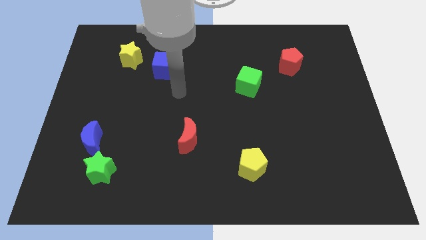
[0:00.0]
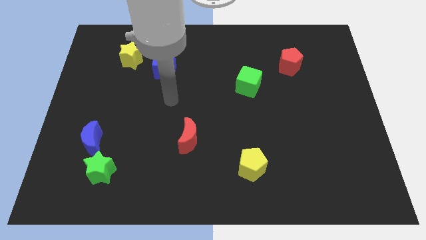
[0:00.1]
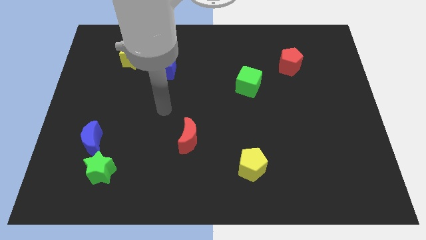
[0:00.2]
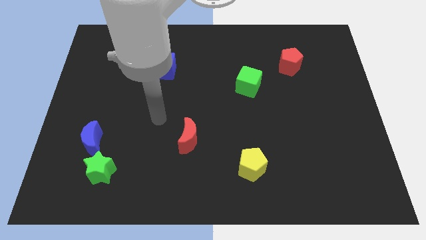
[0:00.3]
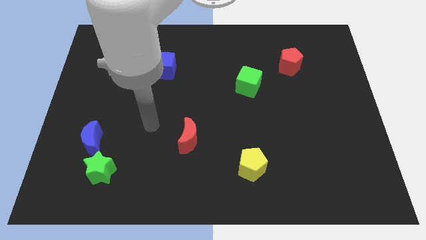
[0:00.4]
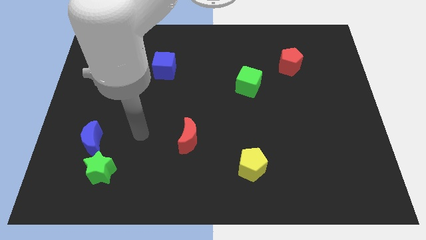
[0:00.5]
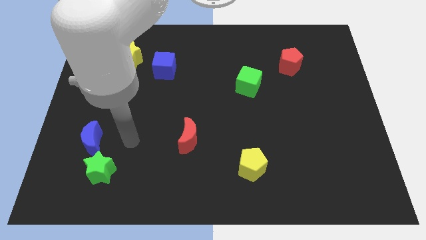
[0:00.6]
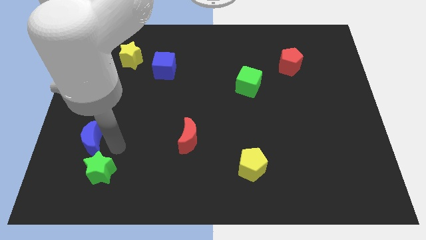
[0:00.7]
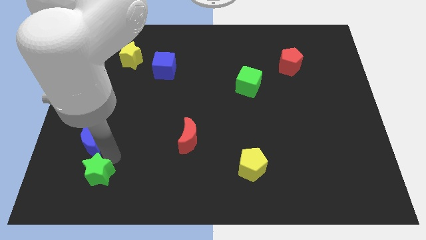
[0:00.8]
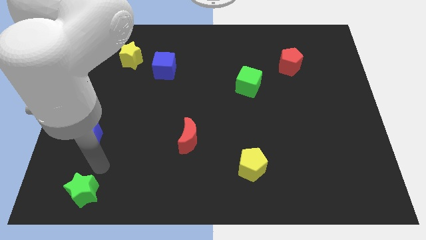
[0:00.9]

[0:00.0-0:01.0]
pull the blue moon apart from the green star

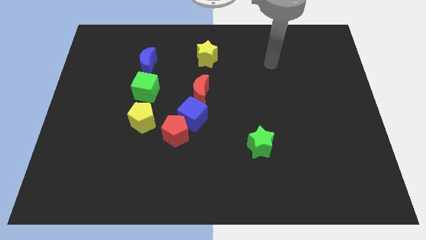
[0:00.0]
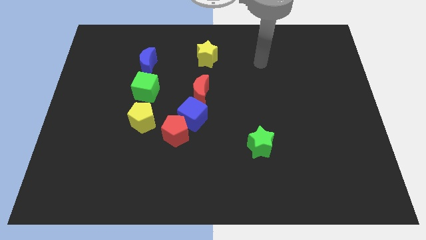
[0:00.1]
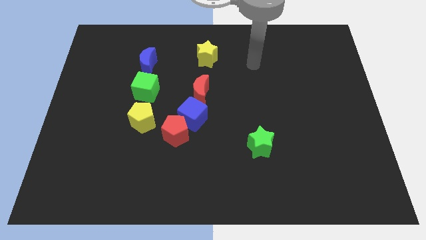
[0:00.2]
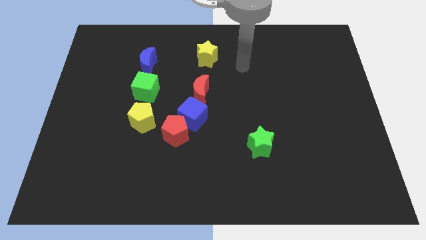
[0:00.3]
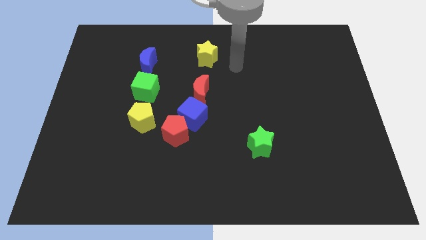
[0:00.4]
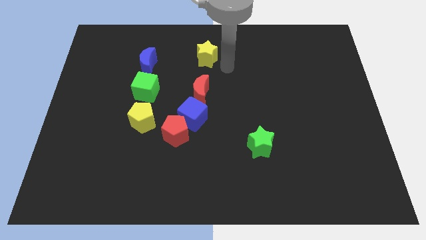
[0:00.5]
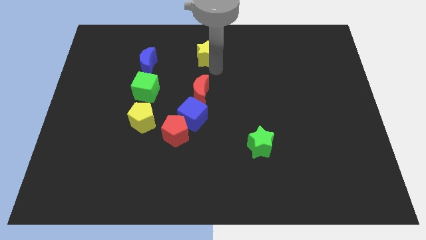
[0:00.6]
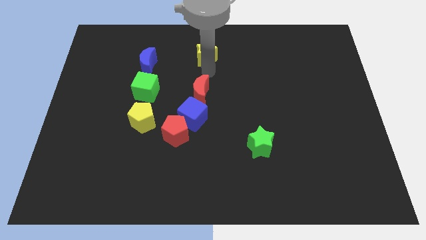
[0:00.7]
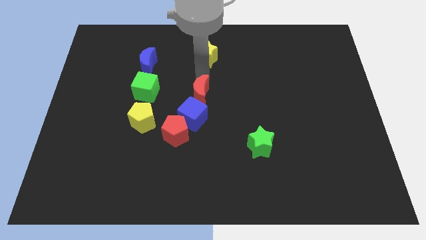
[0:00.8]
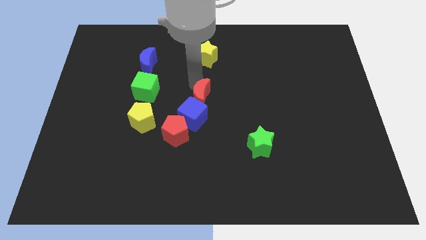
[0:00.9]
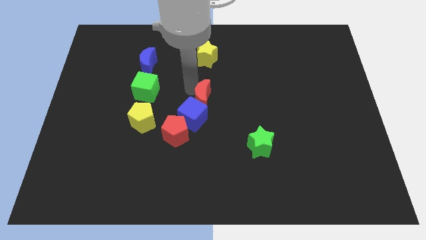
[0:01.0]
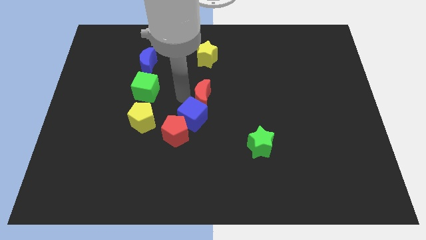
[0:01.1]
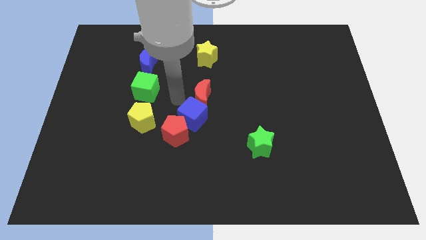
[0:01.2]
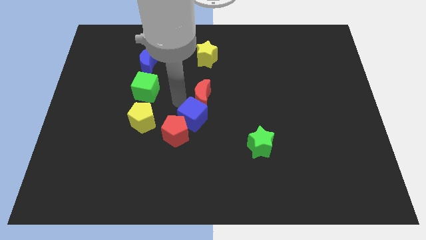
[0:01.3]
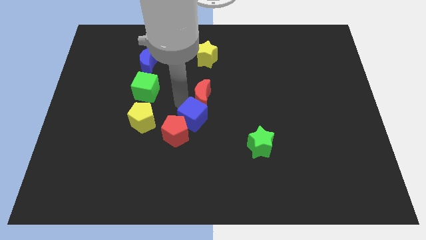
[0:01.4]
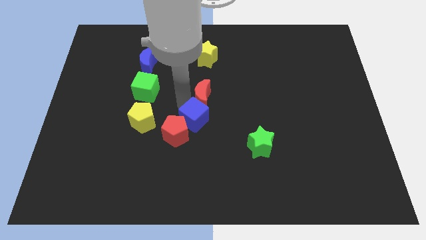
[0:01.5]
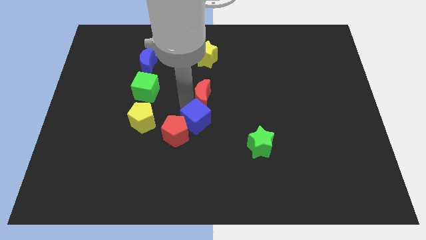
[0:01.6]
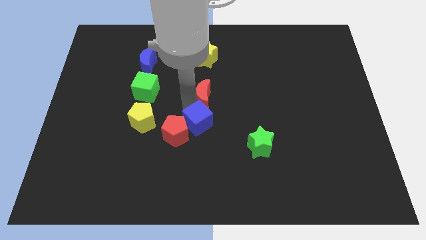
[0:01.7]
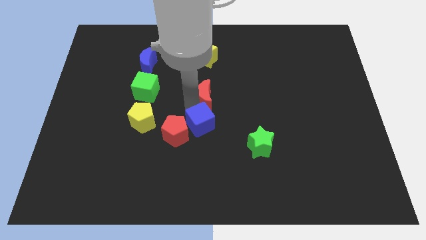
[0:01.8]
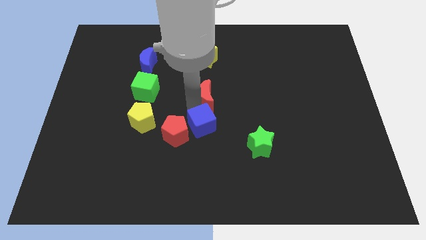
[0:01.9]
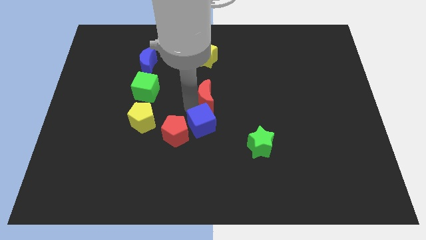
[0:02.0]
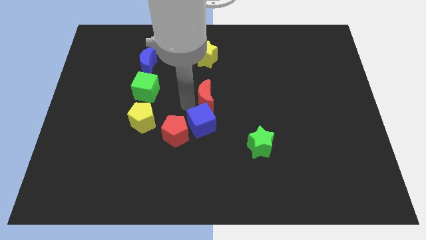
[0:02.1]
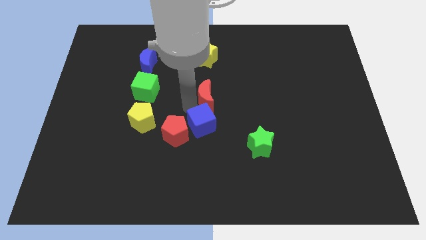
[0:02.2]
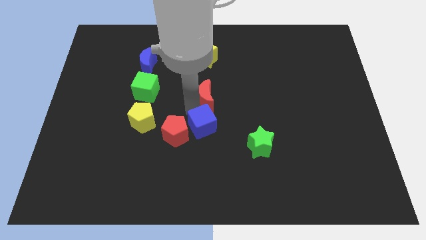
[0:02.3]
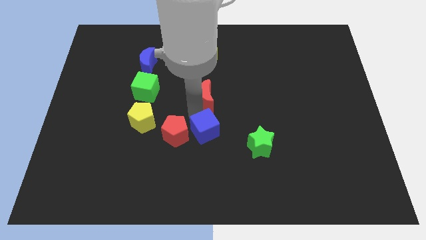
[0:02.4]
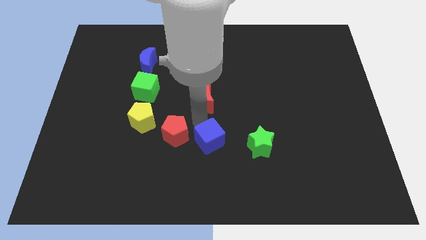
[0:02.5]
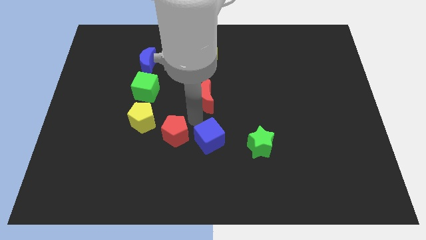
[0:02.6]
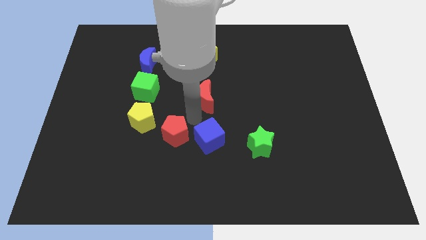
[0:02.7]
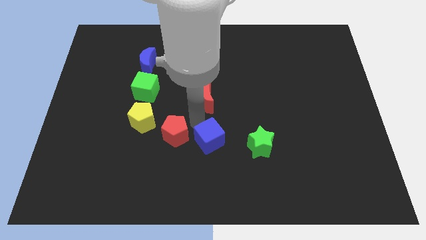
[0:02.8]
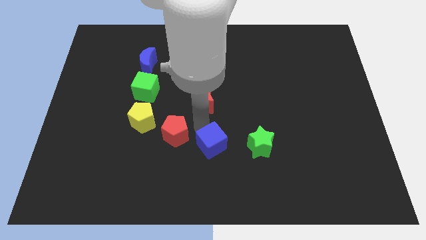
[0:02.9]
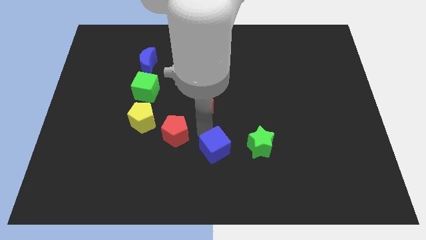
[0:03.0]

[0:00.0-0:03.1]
separate the blue cube from the red pentagon and red moon

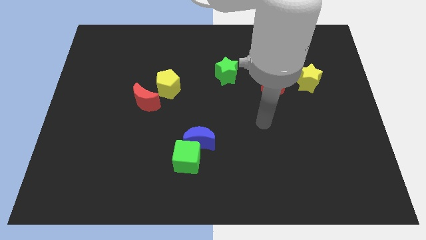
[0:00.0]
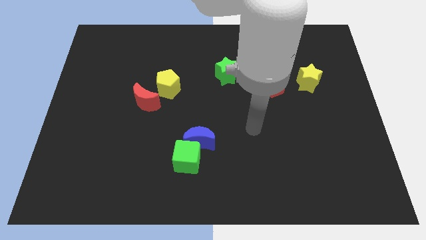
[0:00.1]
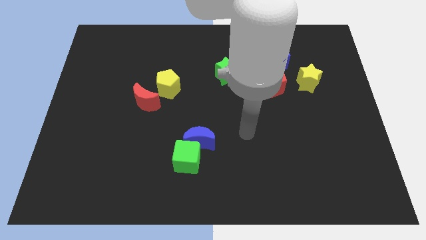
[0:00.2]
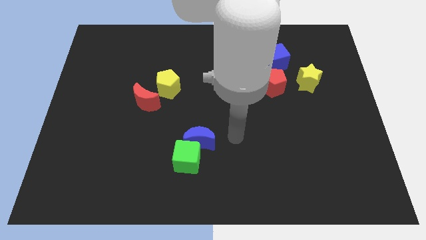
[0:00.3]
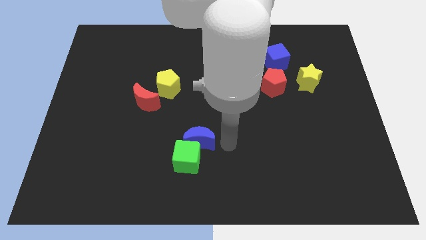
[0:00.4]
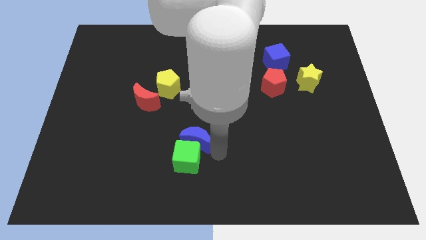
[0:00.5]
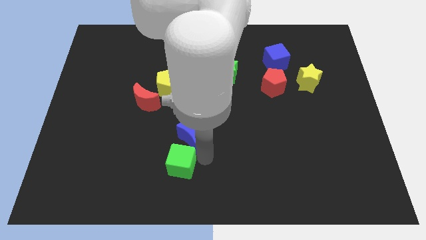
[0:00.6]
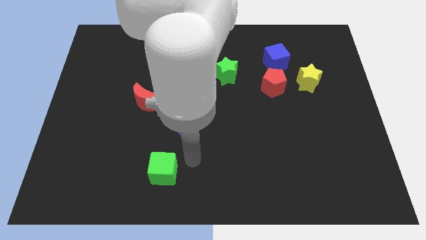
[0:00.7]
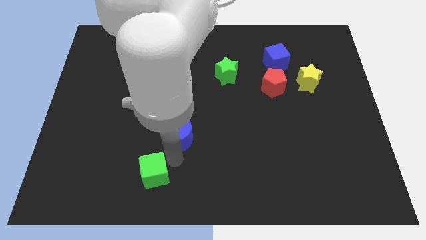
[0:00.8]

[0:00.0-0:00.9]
move the blue moon away from the green cube

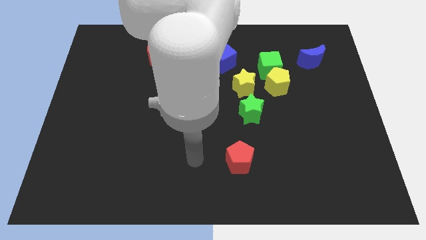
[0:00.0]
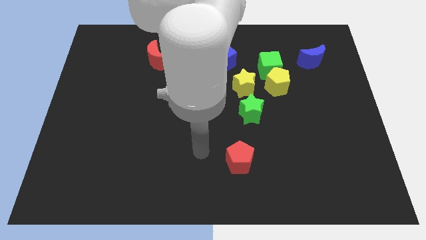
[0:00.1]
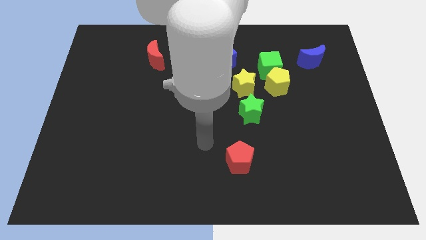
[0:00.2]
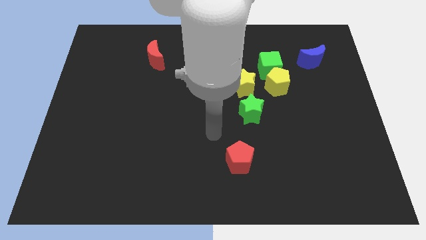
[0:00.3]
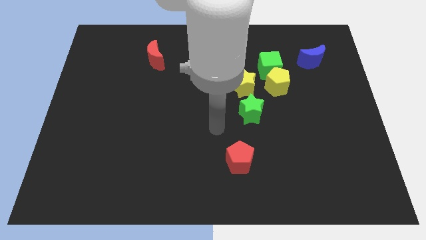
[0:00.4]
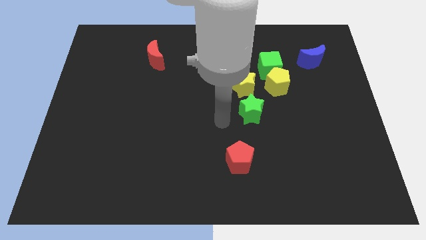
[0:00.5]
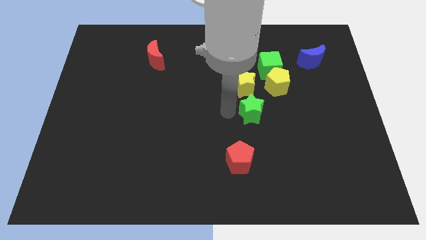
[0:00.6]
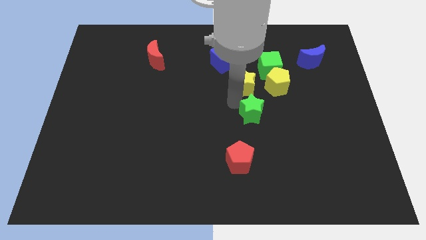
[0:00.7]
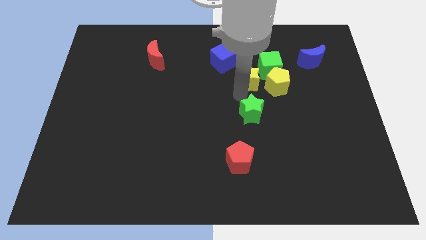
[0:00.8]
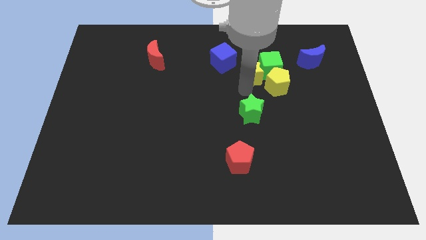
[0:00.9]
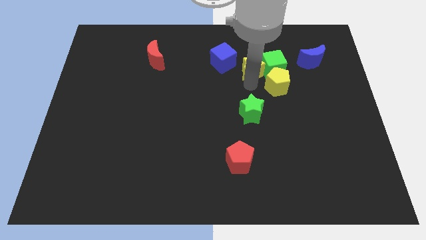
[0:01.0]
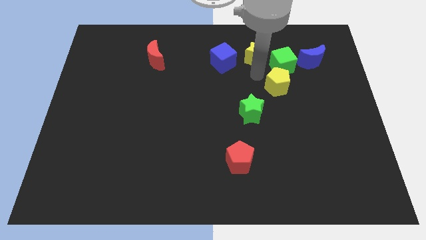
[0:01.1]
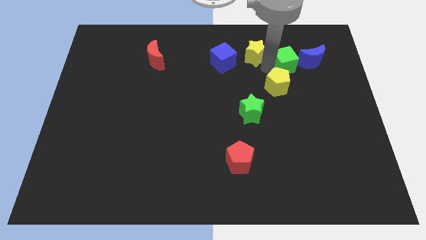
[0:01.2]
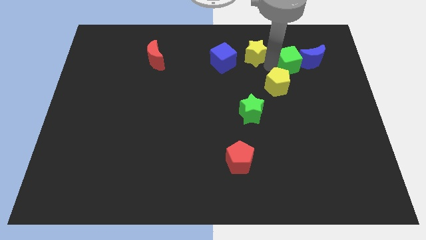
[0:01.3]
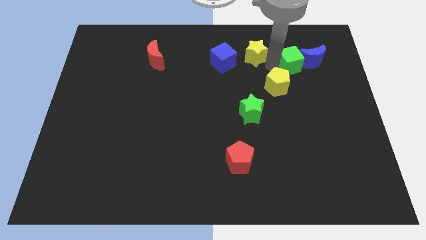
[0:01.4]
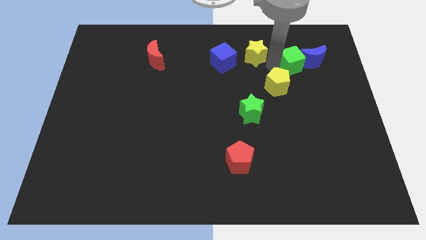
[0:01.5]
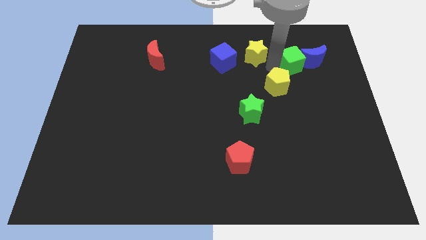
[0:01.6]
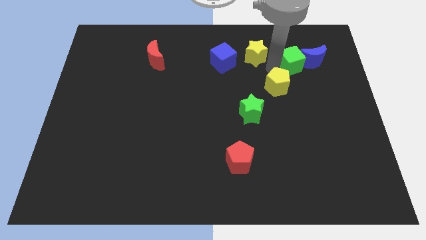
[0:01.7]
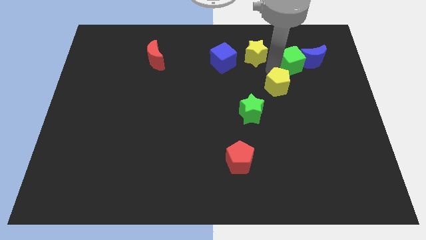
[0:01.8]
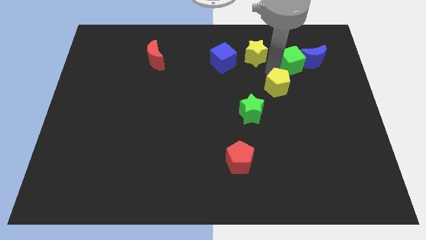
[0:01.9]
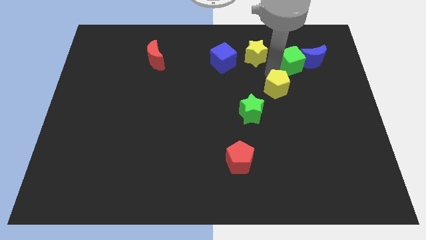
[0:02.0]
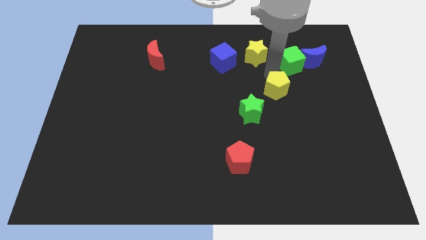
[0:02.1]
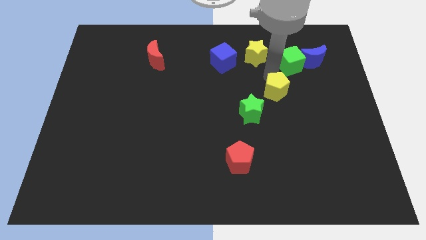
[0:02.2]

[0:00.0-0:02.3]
separate the yellow pentagon from the green cube and yellow star

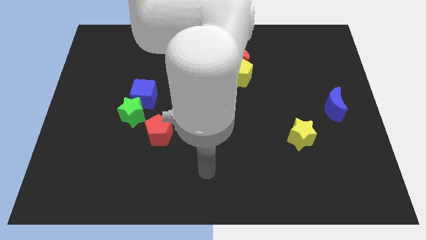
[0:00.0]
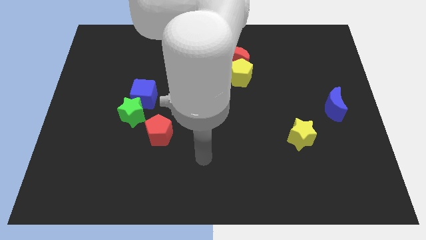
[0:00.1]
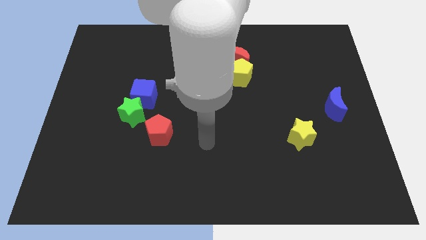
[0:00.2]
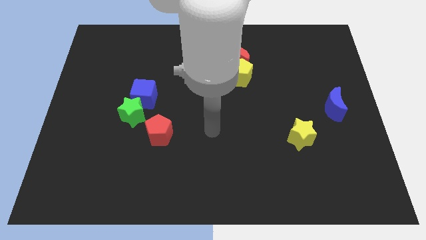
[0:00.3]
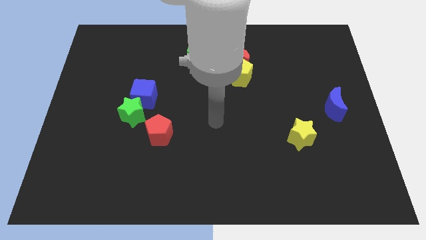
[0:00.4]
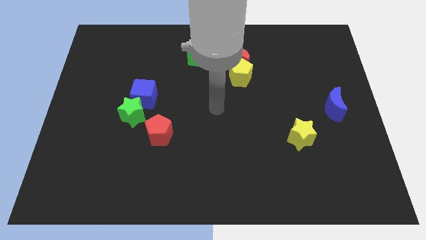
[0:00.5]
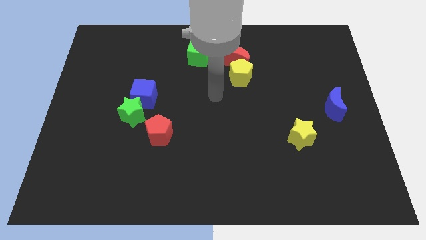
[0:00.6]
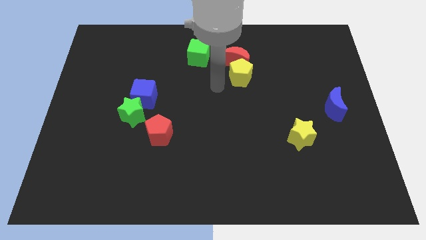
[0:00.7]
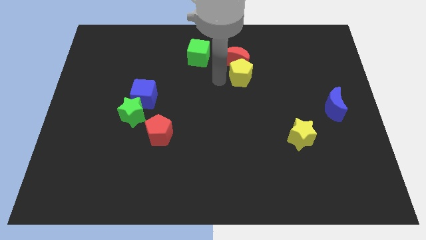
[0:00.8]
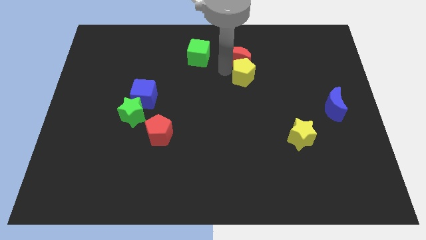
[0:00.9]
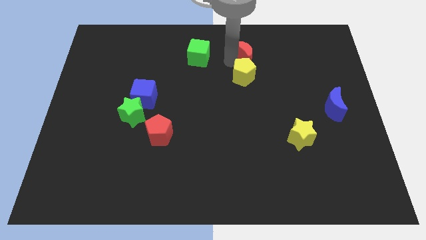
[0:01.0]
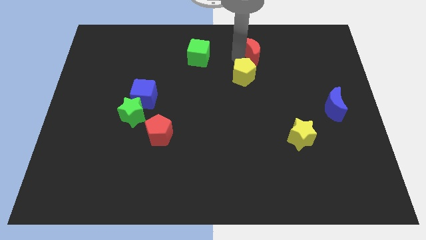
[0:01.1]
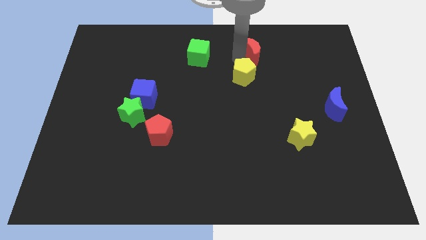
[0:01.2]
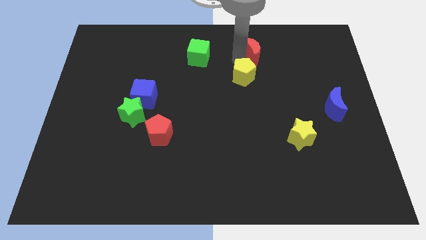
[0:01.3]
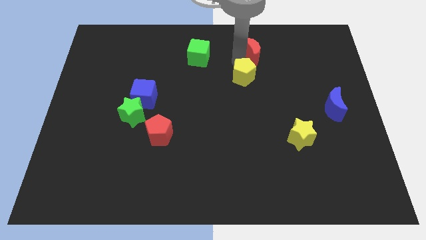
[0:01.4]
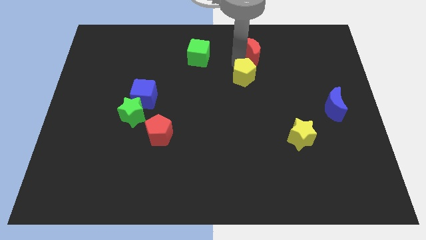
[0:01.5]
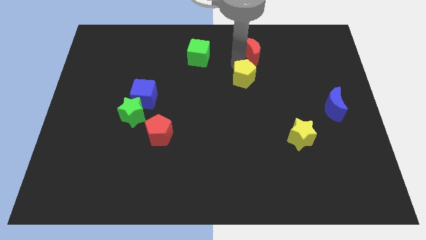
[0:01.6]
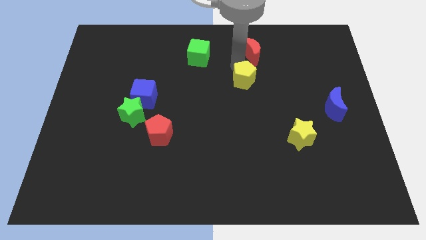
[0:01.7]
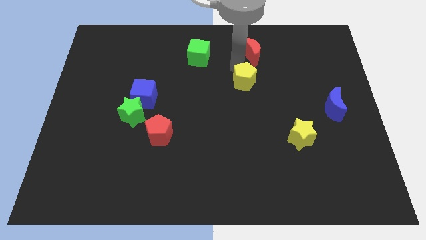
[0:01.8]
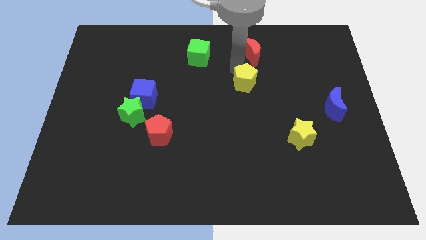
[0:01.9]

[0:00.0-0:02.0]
move the yellow pentagon away from the red moon
